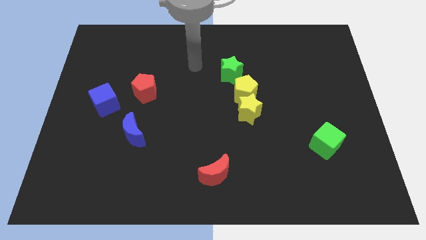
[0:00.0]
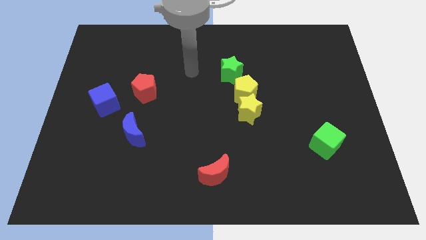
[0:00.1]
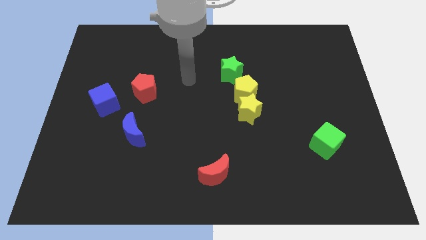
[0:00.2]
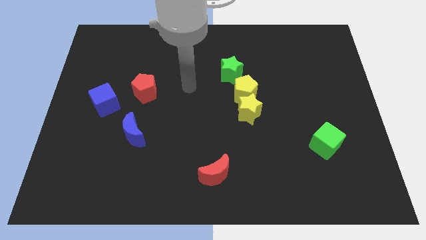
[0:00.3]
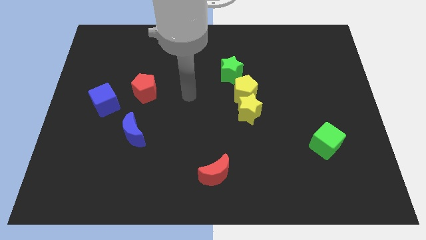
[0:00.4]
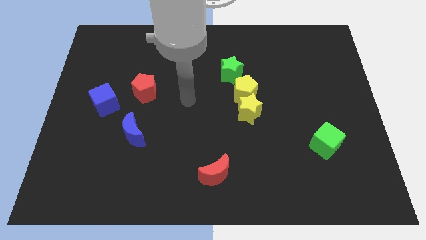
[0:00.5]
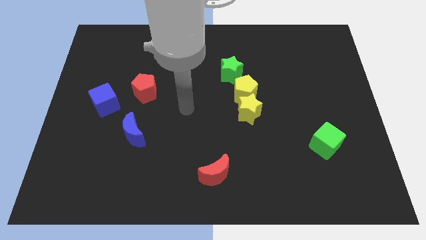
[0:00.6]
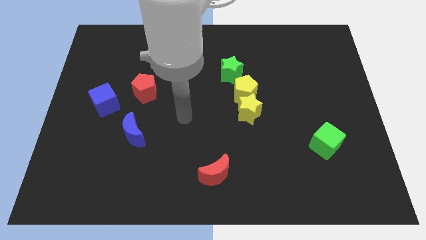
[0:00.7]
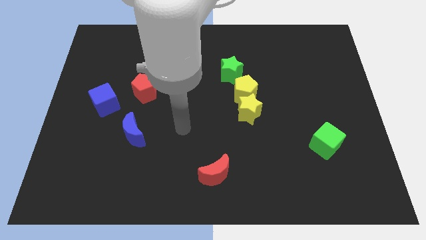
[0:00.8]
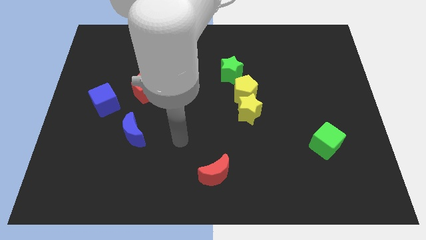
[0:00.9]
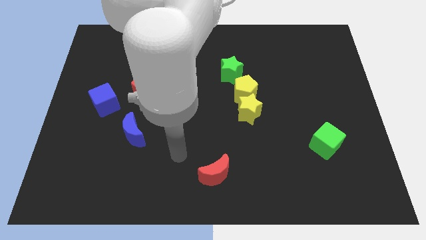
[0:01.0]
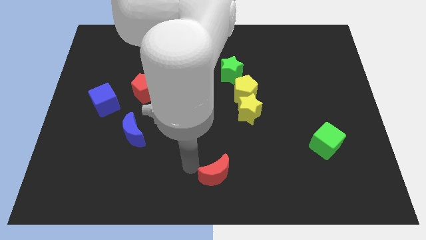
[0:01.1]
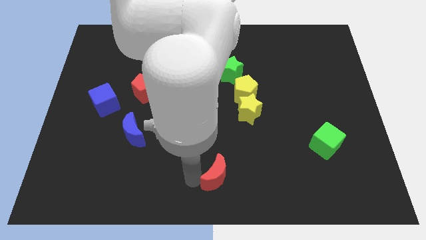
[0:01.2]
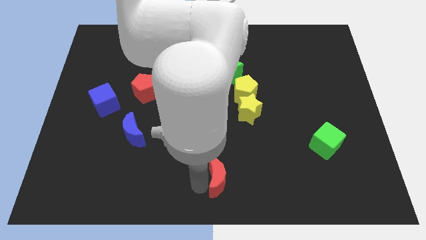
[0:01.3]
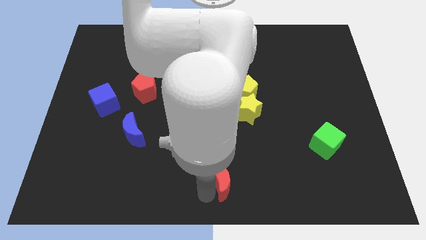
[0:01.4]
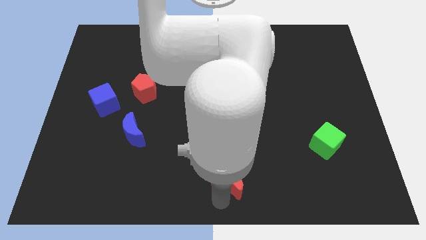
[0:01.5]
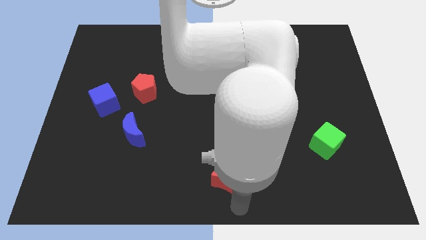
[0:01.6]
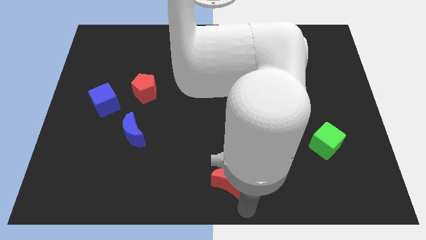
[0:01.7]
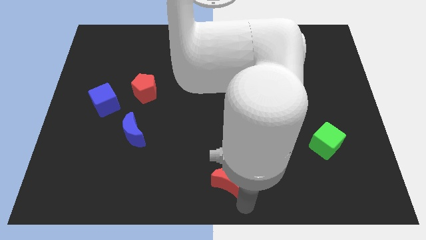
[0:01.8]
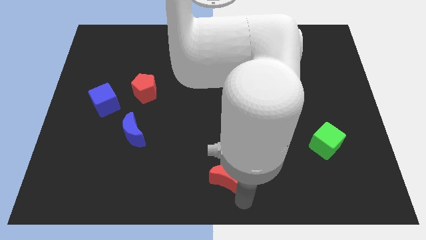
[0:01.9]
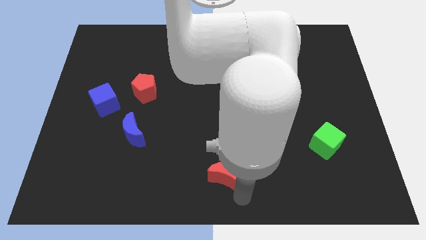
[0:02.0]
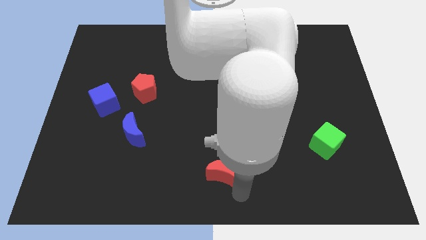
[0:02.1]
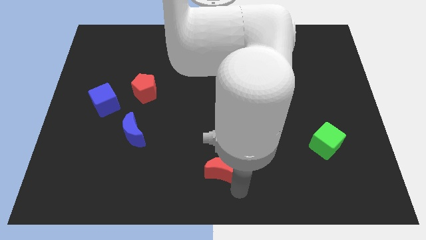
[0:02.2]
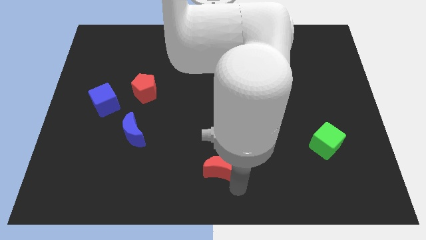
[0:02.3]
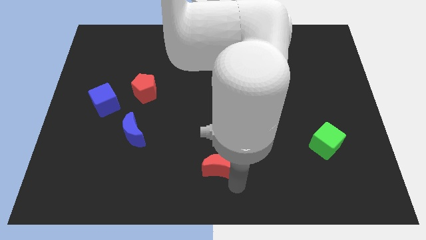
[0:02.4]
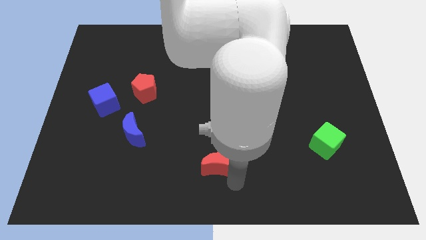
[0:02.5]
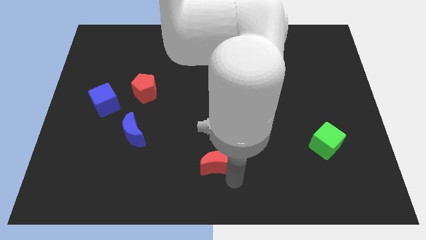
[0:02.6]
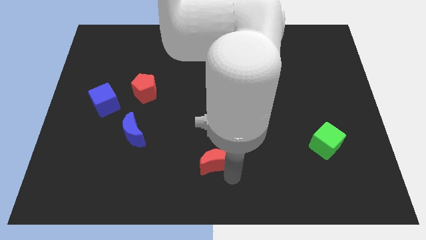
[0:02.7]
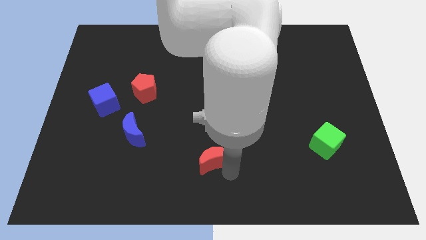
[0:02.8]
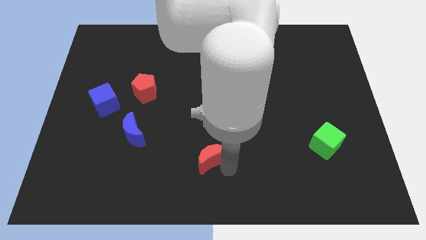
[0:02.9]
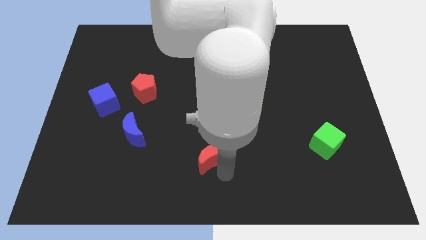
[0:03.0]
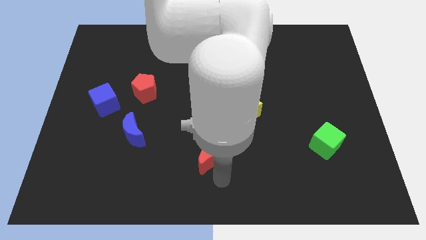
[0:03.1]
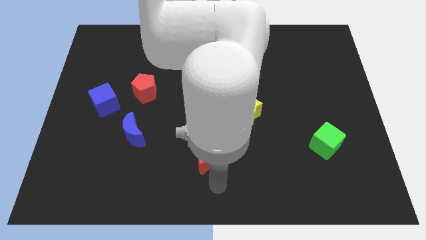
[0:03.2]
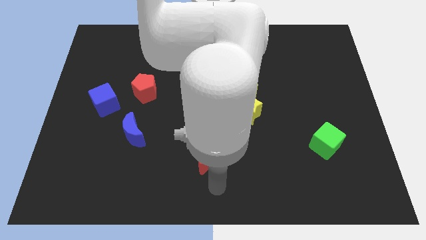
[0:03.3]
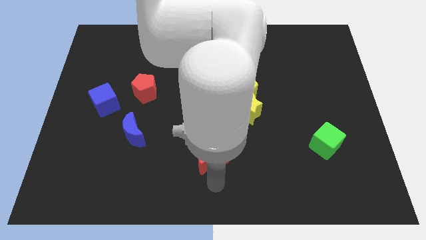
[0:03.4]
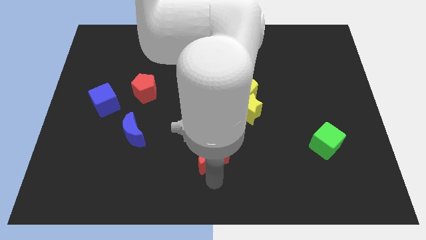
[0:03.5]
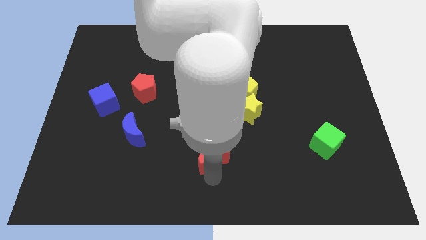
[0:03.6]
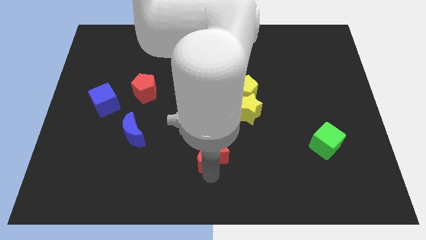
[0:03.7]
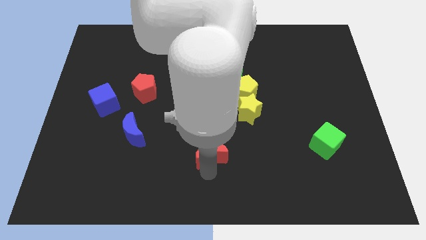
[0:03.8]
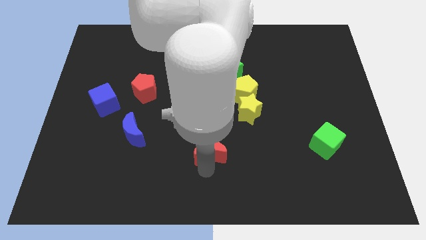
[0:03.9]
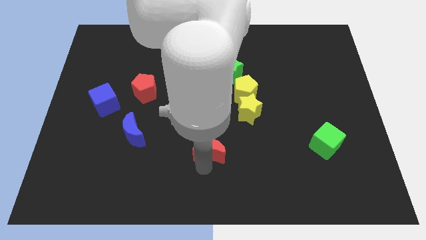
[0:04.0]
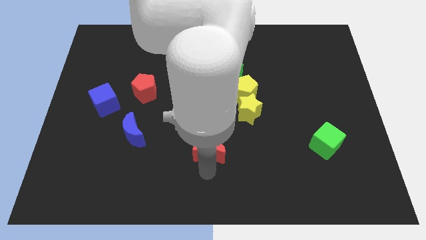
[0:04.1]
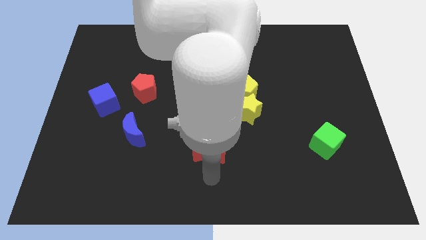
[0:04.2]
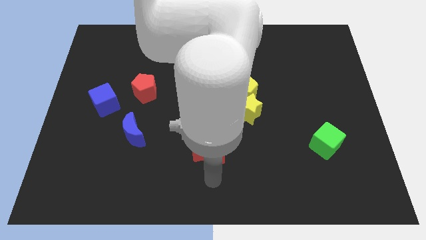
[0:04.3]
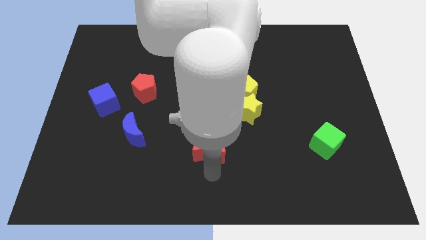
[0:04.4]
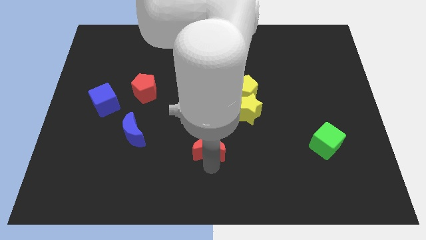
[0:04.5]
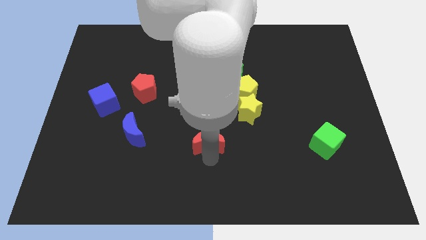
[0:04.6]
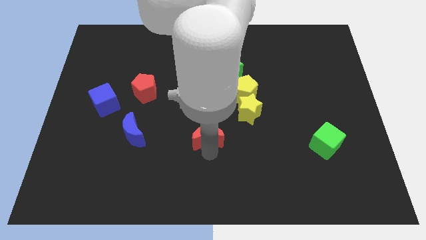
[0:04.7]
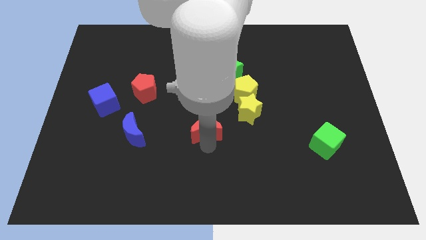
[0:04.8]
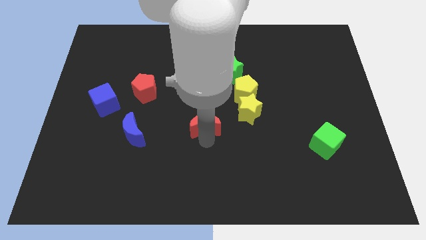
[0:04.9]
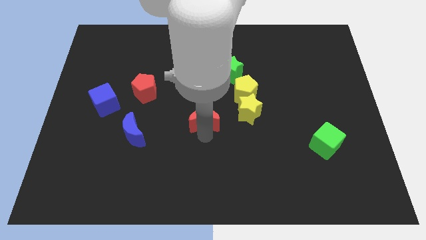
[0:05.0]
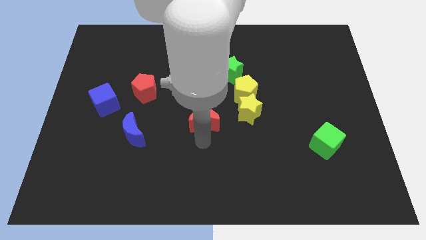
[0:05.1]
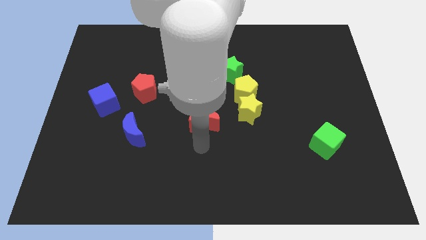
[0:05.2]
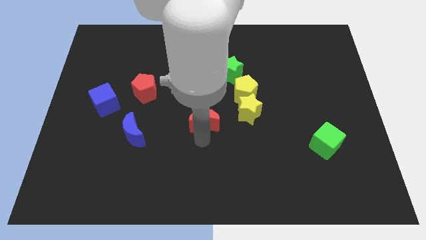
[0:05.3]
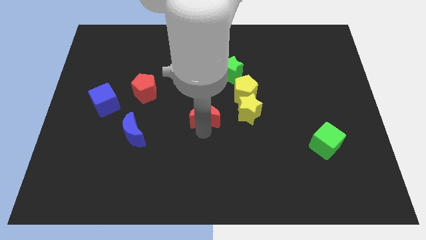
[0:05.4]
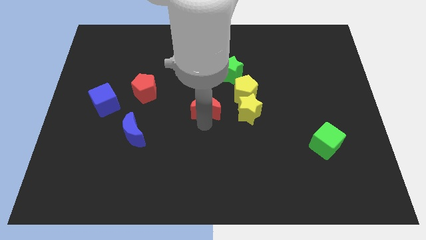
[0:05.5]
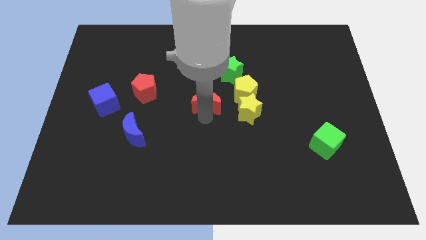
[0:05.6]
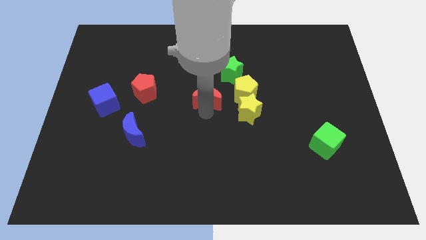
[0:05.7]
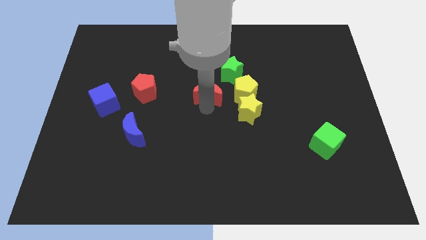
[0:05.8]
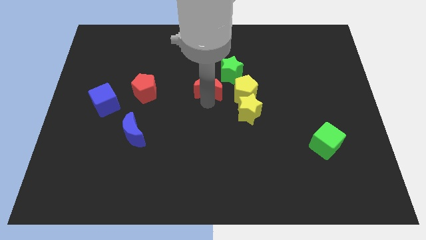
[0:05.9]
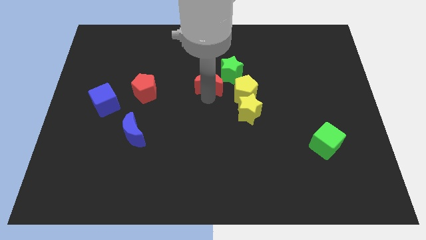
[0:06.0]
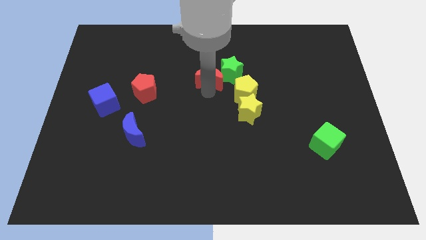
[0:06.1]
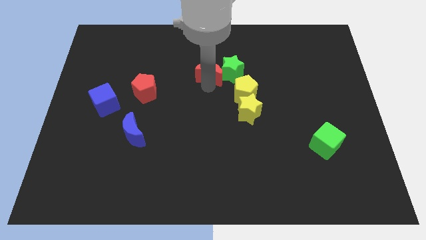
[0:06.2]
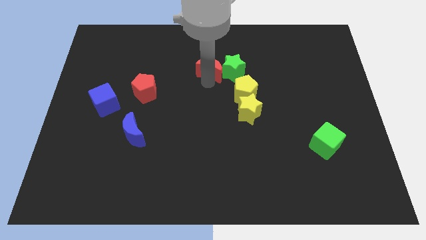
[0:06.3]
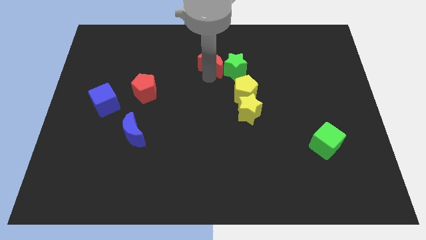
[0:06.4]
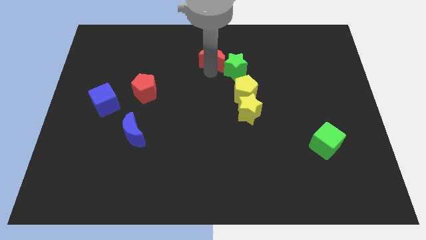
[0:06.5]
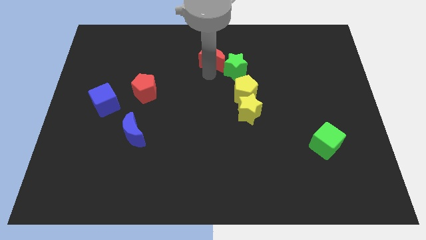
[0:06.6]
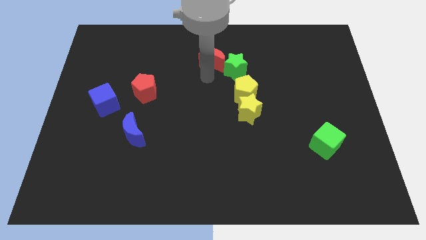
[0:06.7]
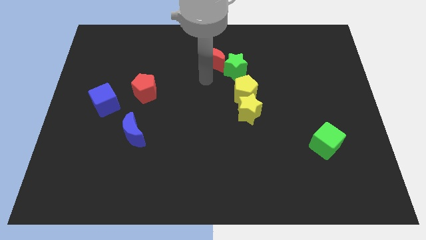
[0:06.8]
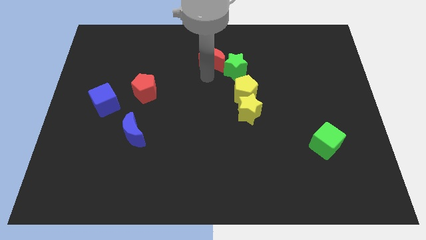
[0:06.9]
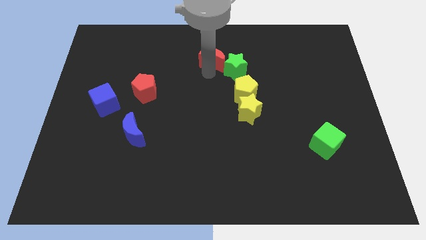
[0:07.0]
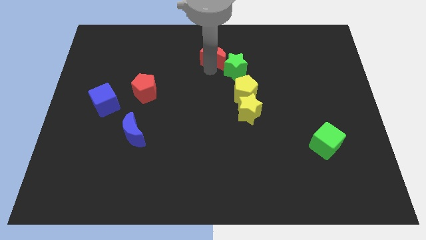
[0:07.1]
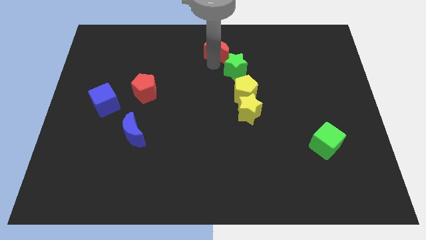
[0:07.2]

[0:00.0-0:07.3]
slide the red moon to the towards your base
